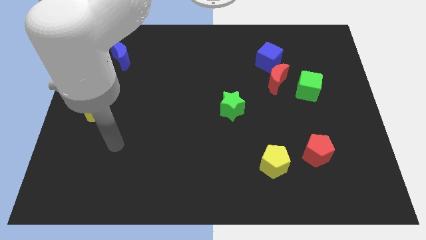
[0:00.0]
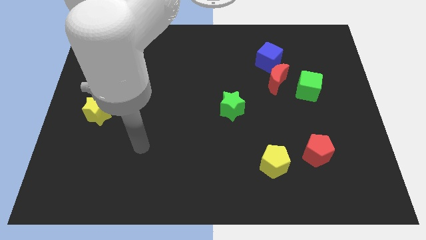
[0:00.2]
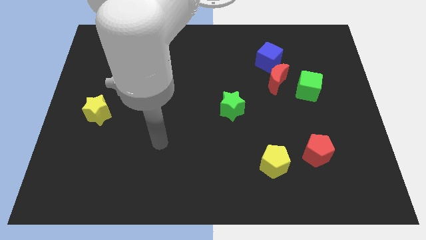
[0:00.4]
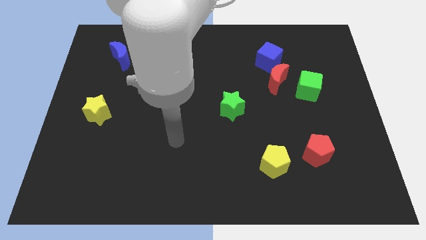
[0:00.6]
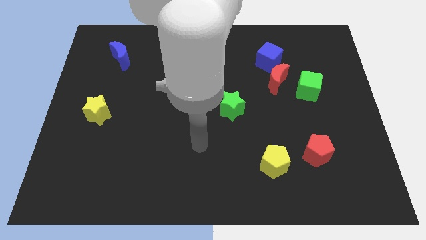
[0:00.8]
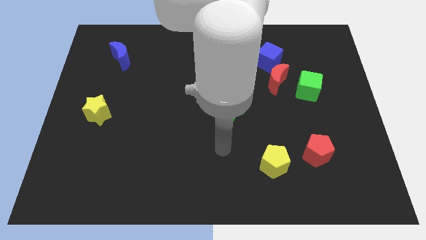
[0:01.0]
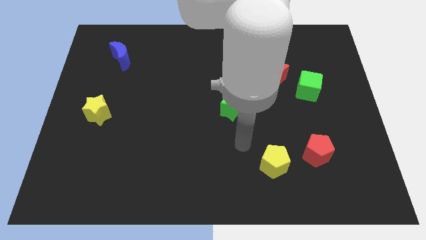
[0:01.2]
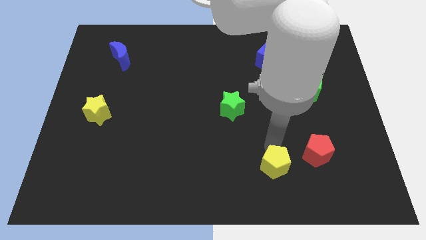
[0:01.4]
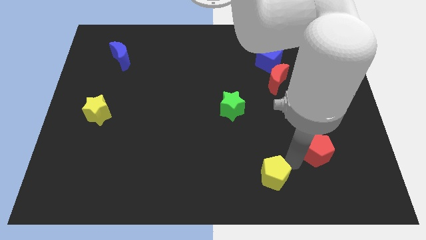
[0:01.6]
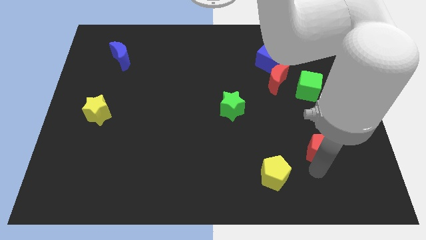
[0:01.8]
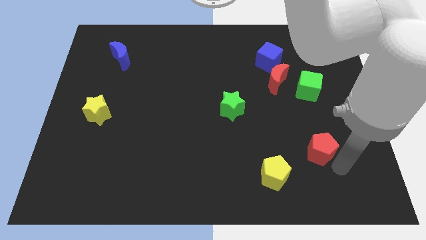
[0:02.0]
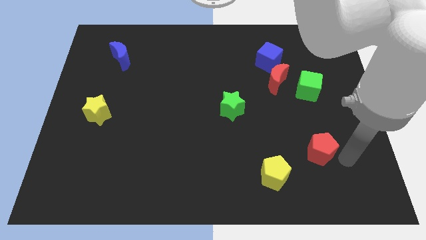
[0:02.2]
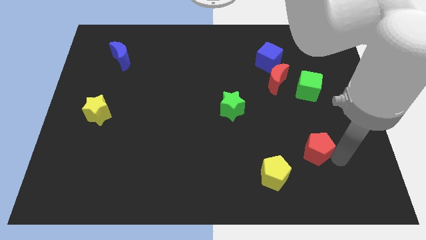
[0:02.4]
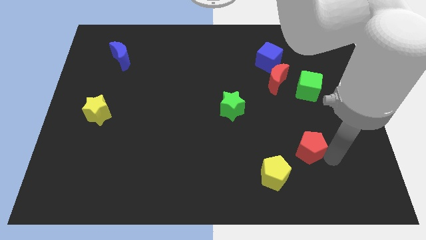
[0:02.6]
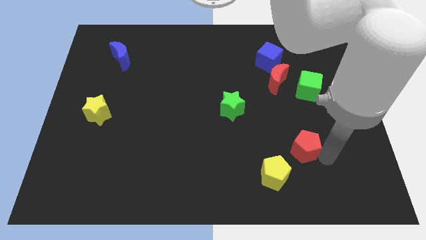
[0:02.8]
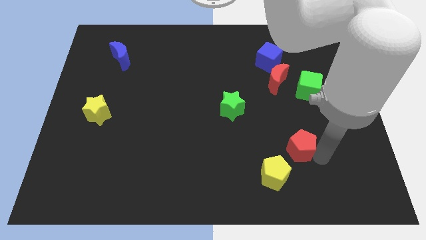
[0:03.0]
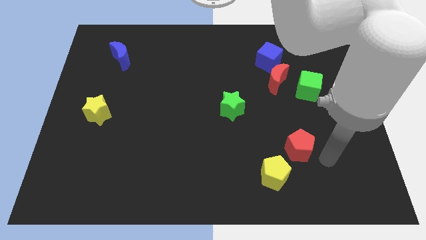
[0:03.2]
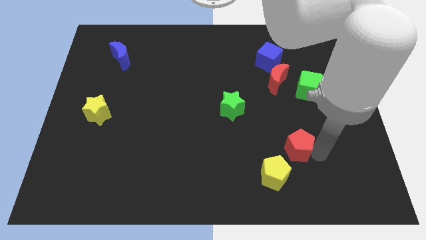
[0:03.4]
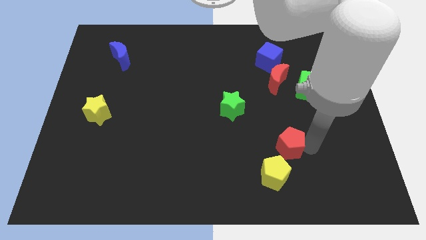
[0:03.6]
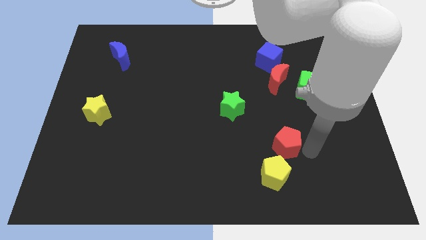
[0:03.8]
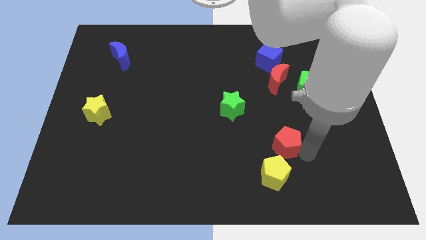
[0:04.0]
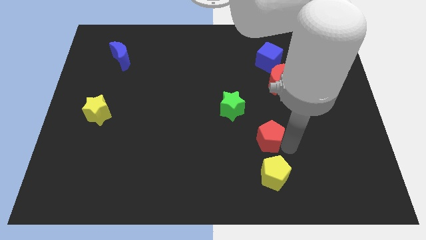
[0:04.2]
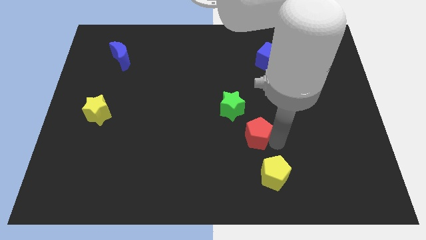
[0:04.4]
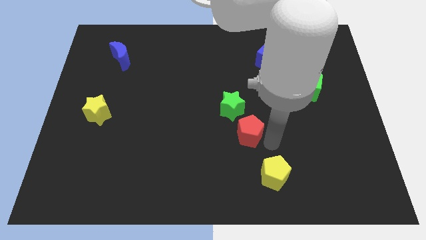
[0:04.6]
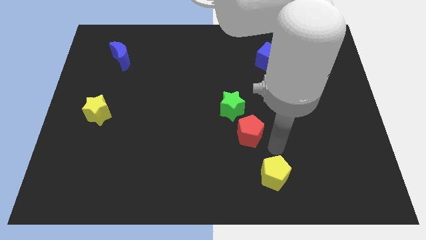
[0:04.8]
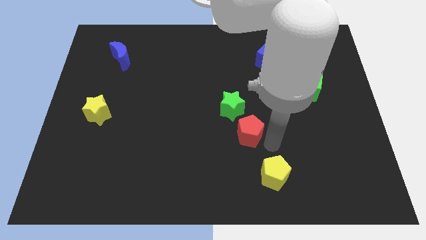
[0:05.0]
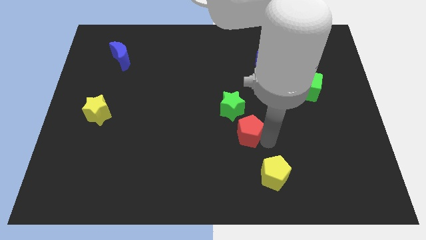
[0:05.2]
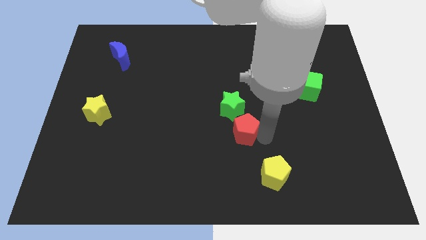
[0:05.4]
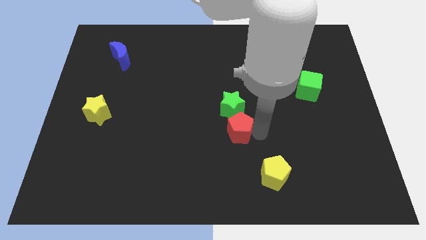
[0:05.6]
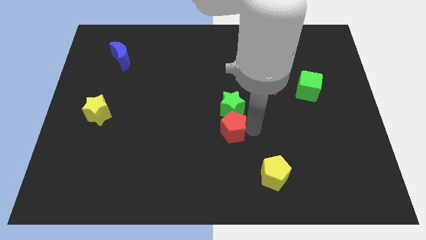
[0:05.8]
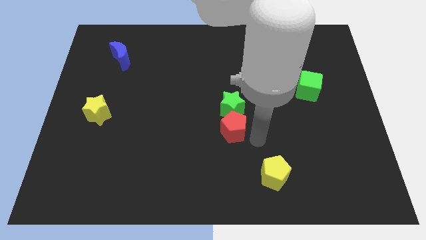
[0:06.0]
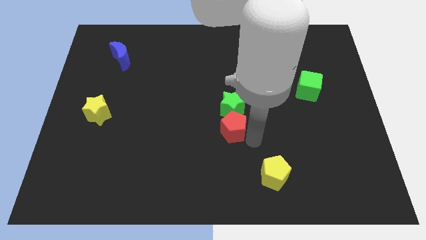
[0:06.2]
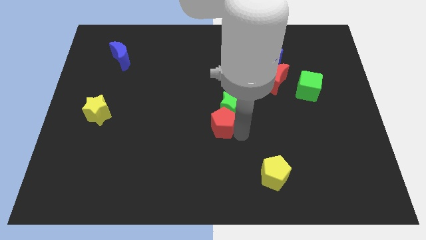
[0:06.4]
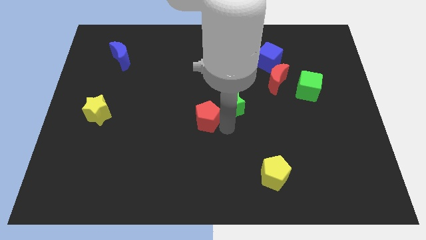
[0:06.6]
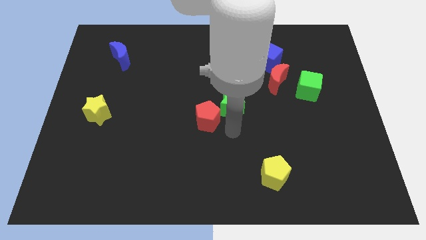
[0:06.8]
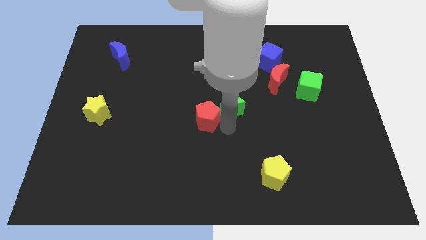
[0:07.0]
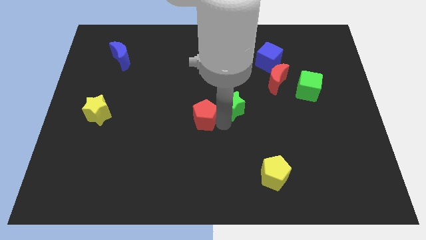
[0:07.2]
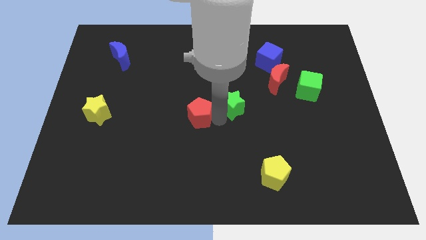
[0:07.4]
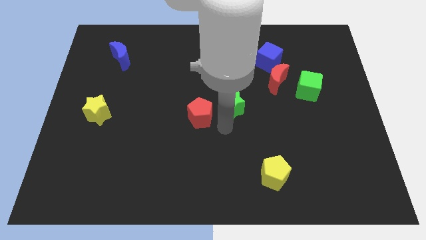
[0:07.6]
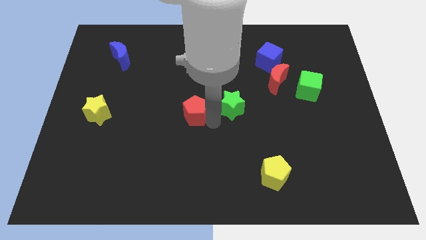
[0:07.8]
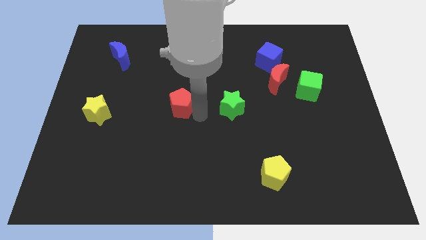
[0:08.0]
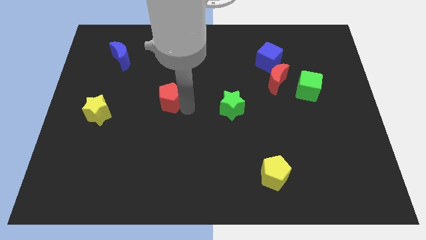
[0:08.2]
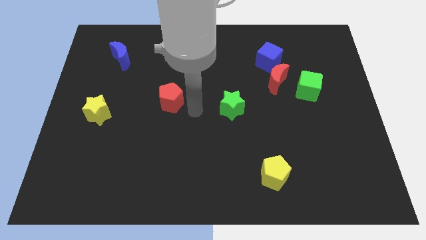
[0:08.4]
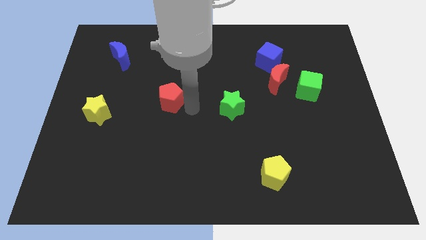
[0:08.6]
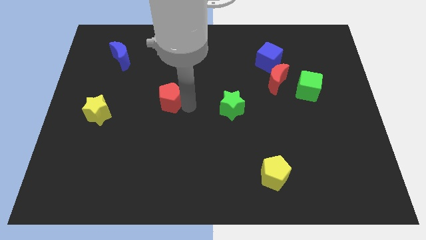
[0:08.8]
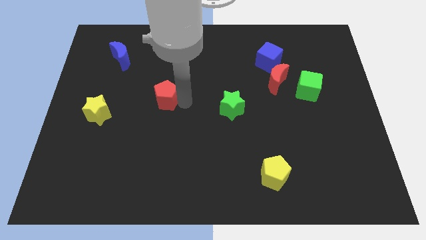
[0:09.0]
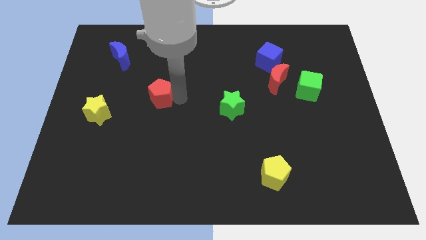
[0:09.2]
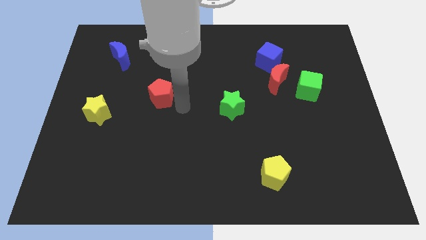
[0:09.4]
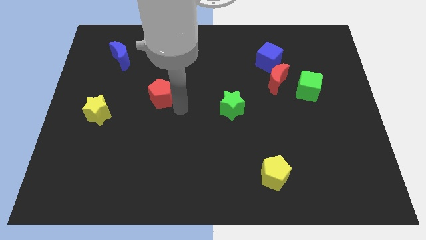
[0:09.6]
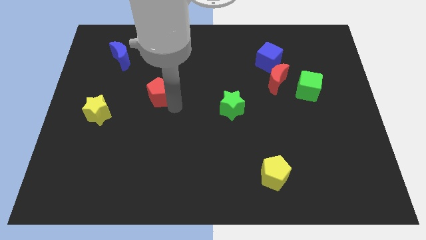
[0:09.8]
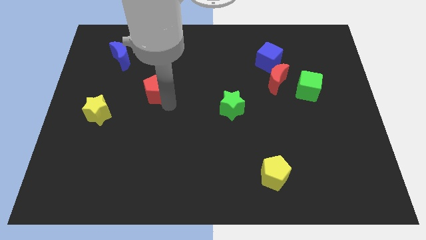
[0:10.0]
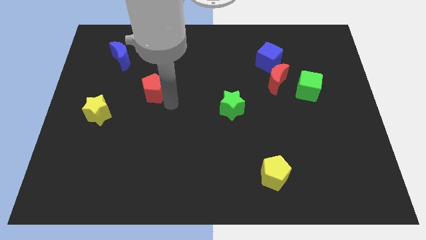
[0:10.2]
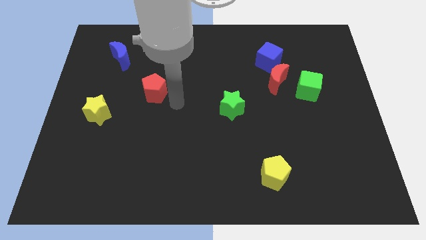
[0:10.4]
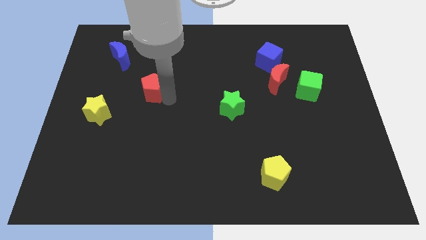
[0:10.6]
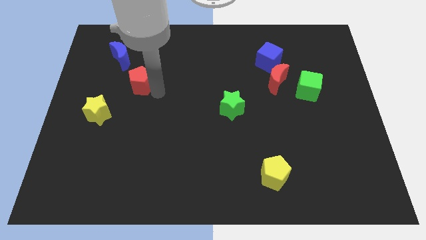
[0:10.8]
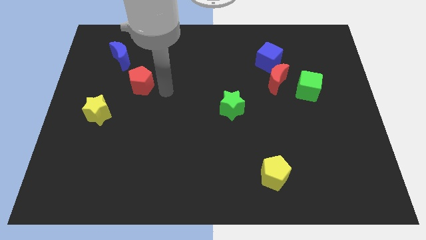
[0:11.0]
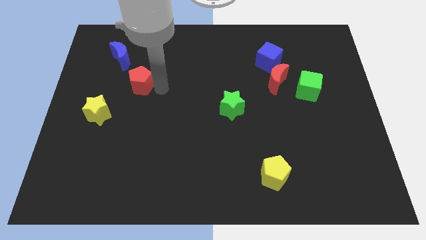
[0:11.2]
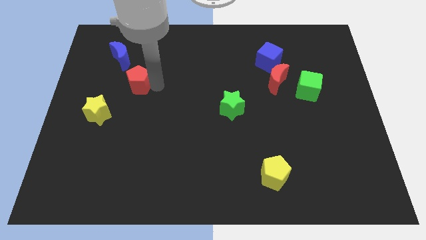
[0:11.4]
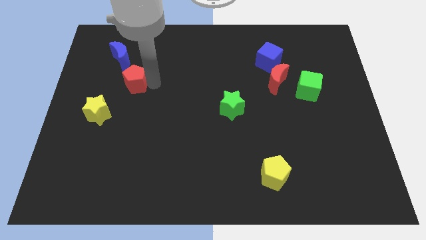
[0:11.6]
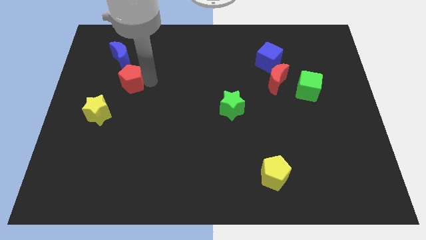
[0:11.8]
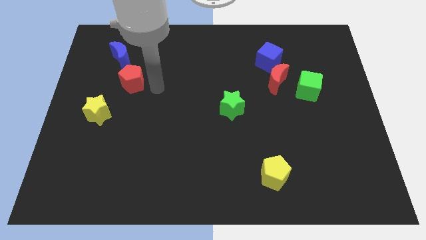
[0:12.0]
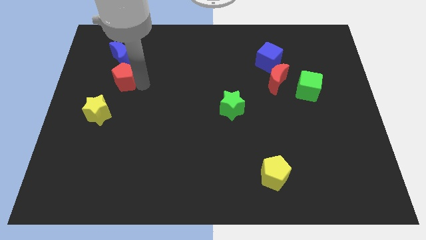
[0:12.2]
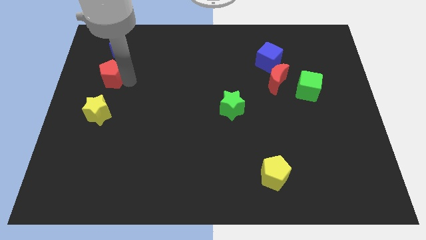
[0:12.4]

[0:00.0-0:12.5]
slide the red pentagon to the bottom left of the blue moon
